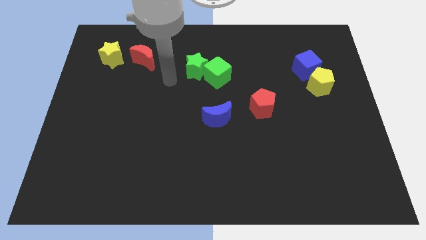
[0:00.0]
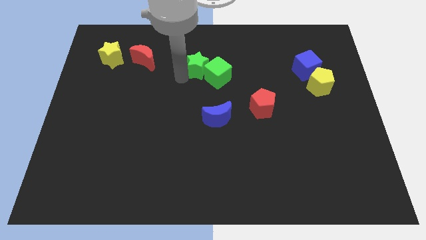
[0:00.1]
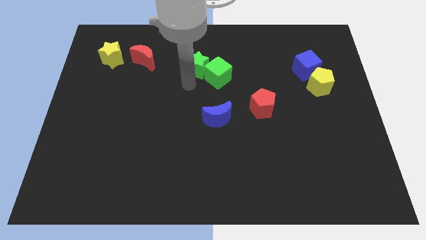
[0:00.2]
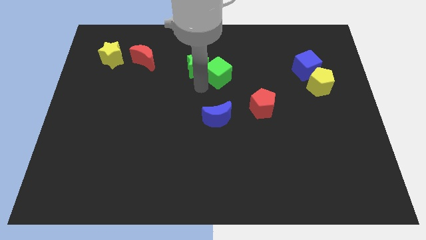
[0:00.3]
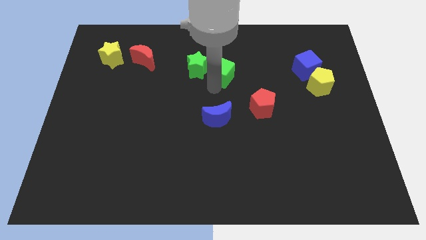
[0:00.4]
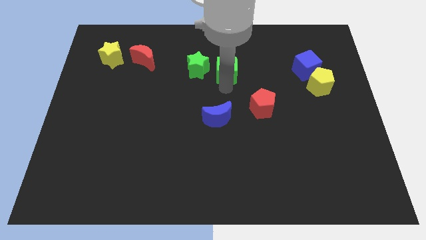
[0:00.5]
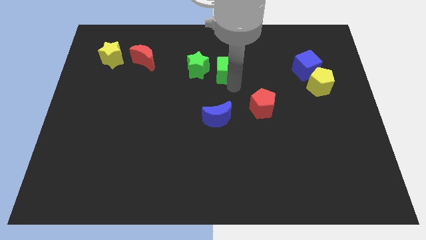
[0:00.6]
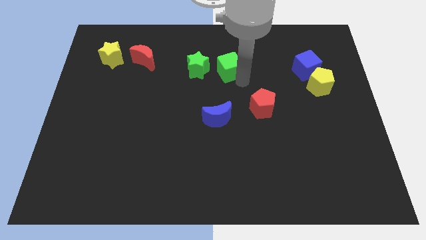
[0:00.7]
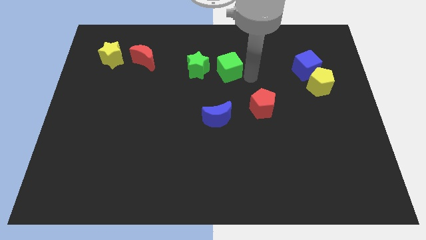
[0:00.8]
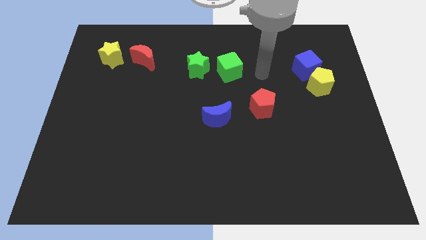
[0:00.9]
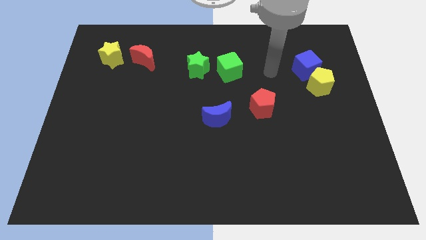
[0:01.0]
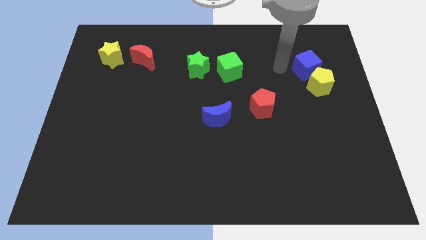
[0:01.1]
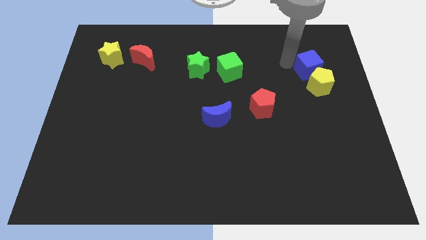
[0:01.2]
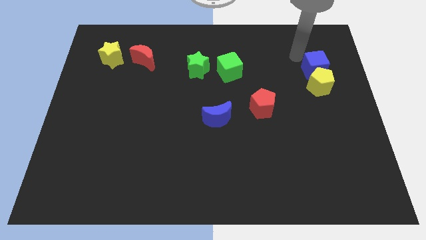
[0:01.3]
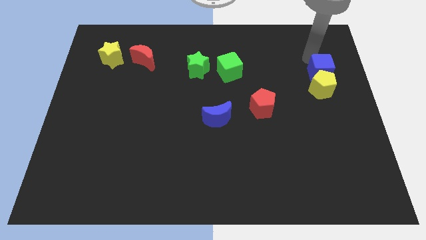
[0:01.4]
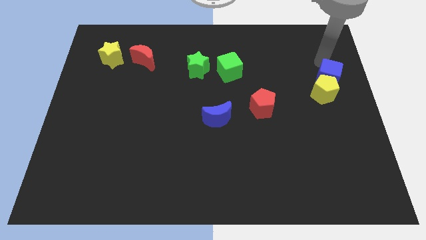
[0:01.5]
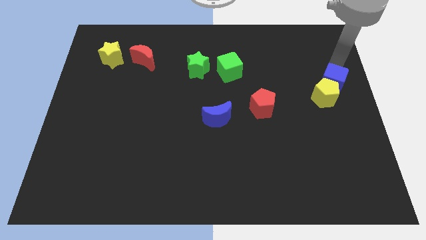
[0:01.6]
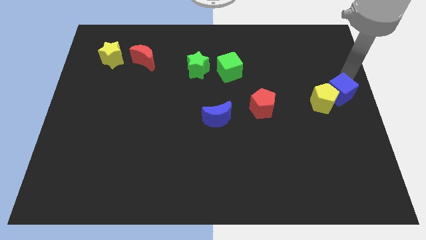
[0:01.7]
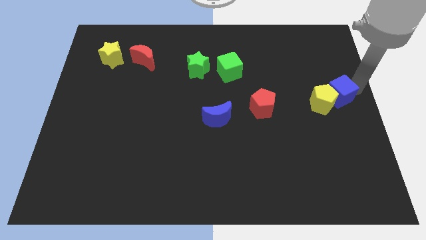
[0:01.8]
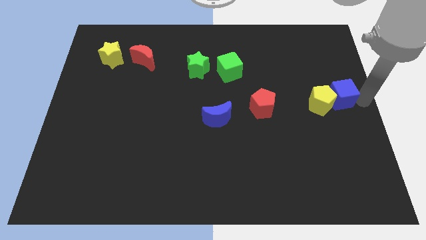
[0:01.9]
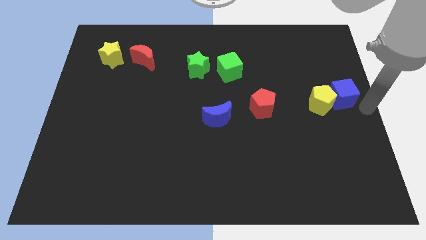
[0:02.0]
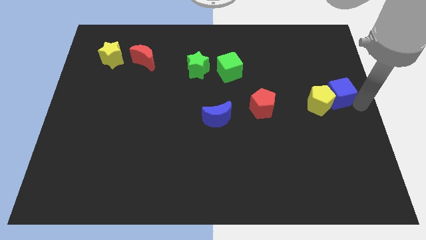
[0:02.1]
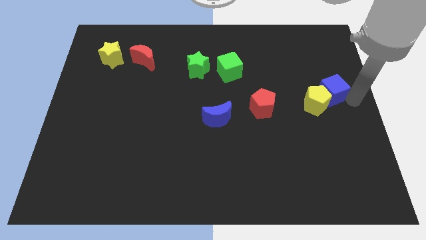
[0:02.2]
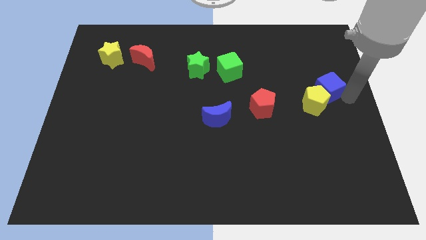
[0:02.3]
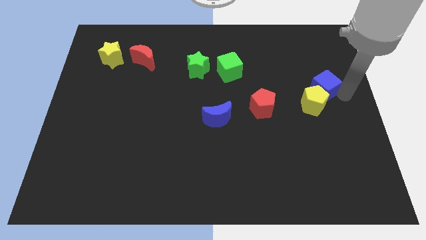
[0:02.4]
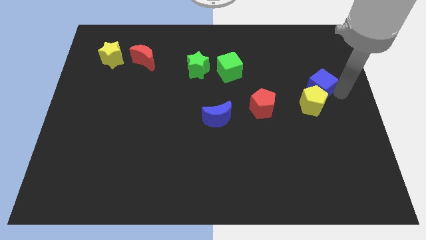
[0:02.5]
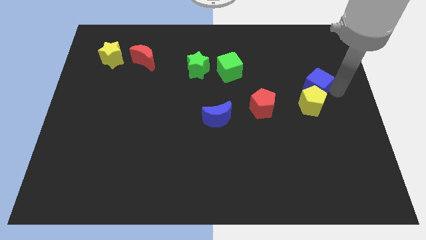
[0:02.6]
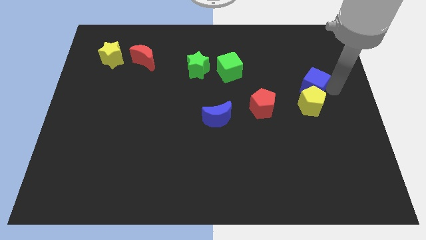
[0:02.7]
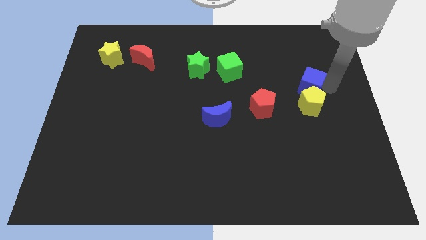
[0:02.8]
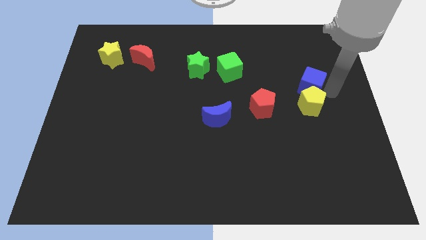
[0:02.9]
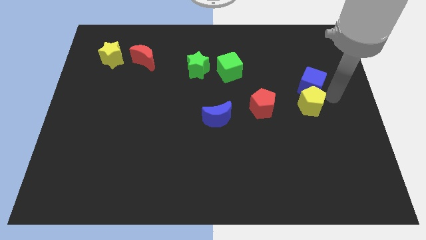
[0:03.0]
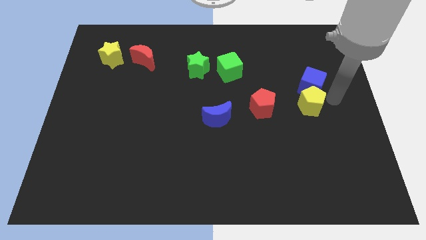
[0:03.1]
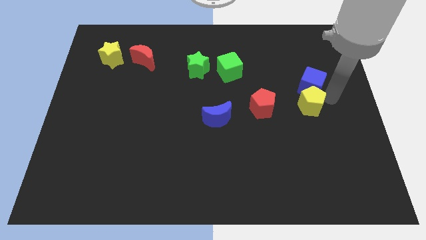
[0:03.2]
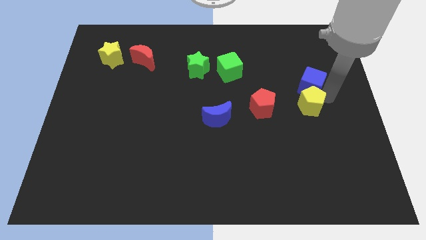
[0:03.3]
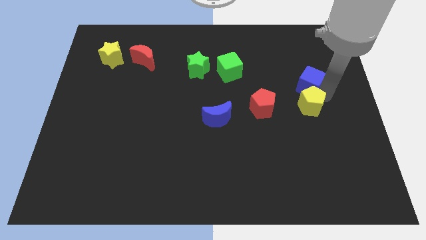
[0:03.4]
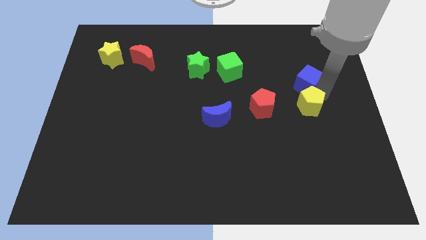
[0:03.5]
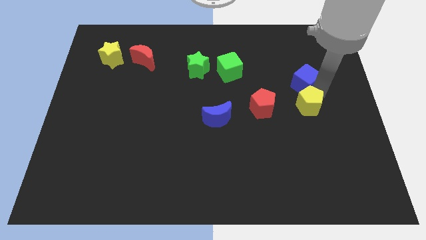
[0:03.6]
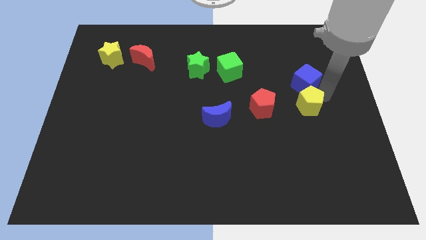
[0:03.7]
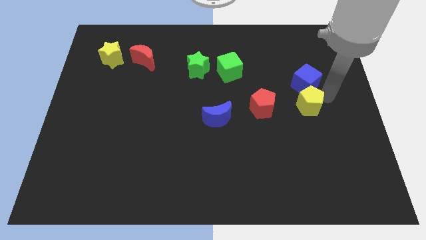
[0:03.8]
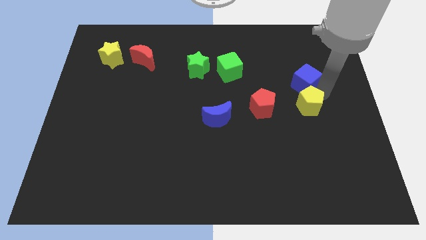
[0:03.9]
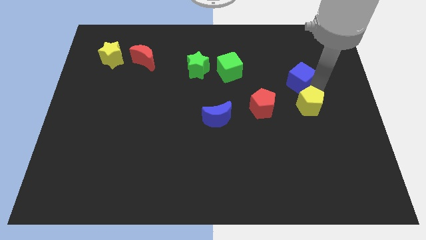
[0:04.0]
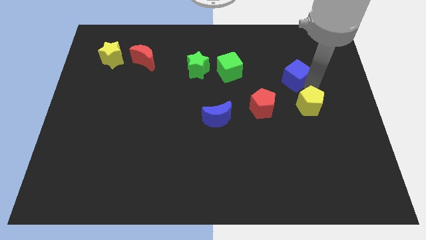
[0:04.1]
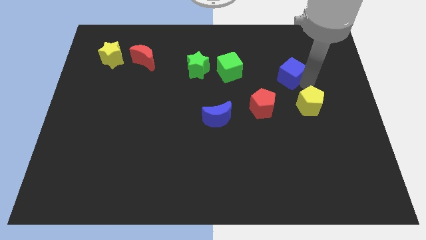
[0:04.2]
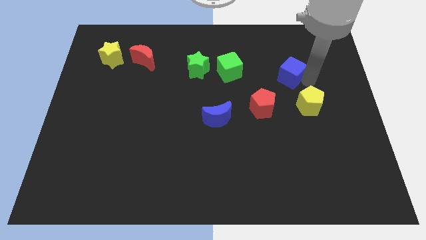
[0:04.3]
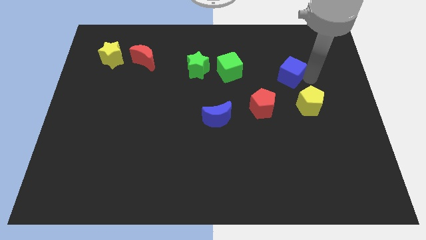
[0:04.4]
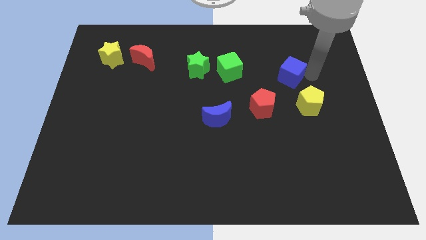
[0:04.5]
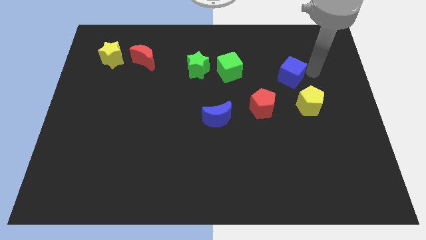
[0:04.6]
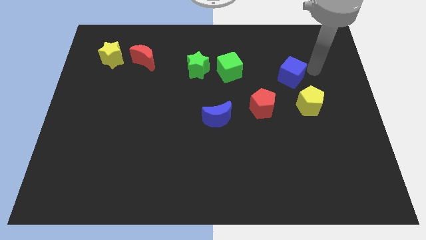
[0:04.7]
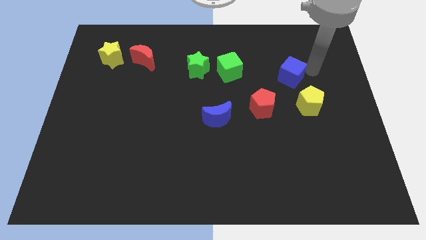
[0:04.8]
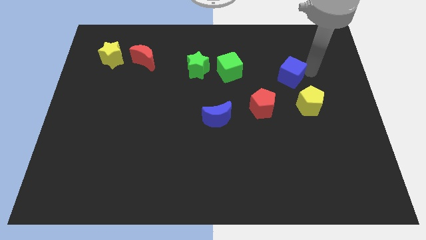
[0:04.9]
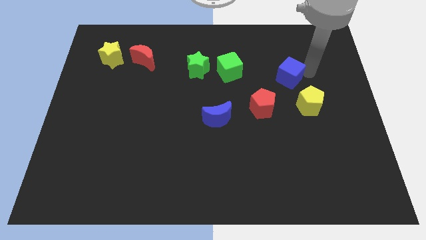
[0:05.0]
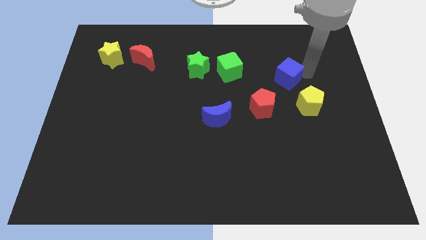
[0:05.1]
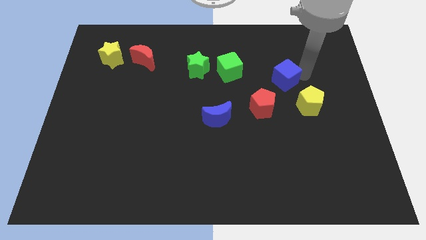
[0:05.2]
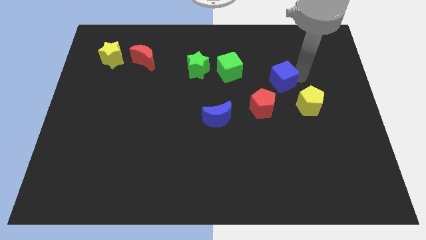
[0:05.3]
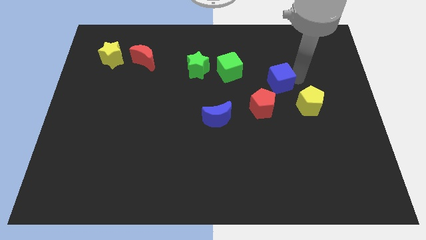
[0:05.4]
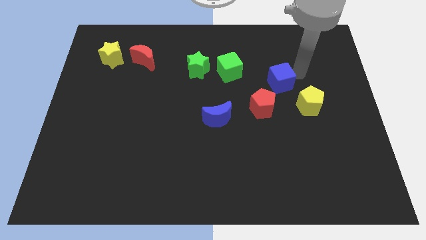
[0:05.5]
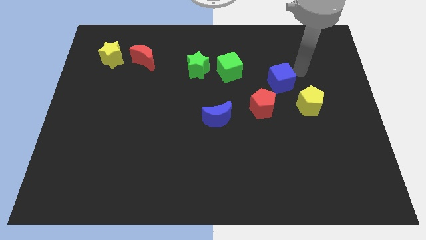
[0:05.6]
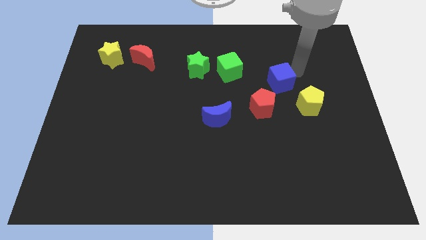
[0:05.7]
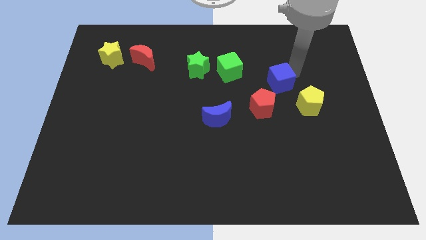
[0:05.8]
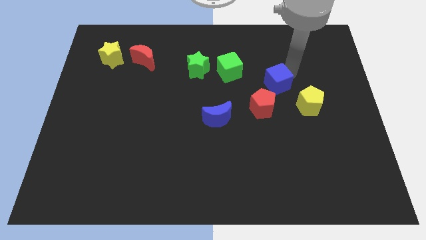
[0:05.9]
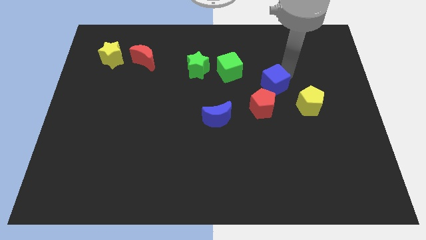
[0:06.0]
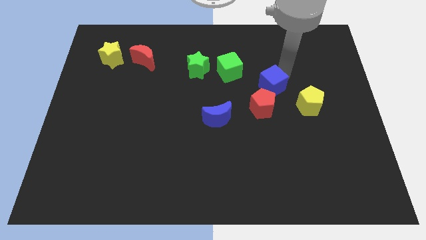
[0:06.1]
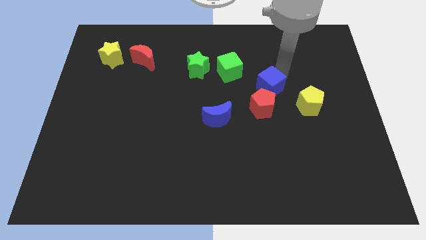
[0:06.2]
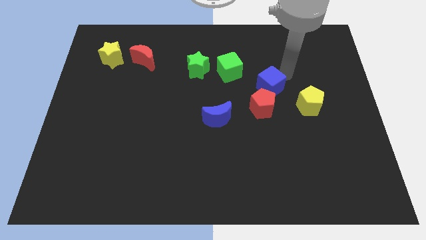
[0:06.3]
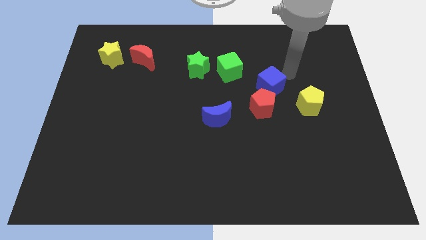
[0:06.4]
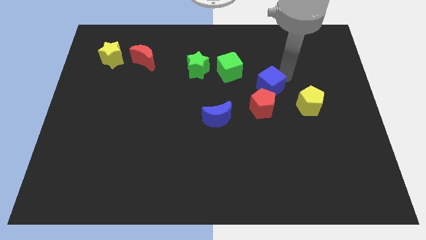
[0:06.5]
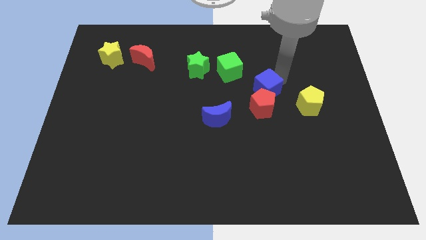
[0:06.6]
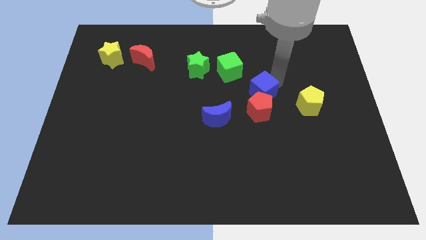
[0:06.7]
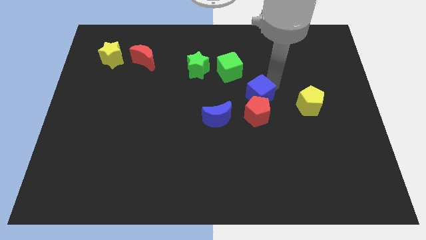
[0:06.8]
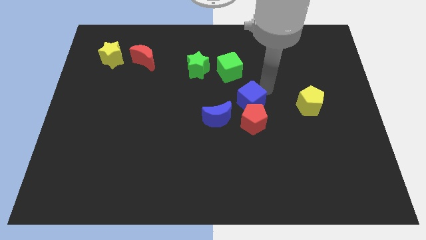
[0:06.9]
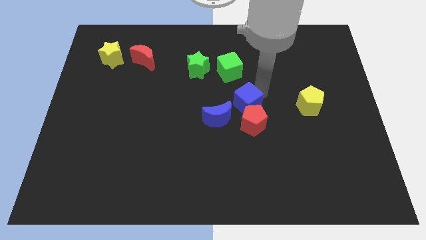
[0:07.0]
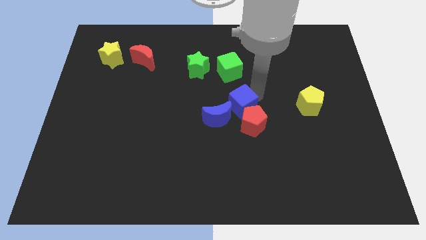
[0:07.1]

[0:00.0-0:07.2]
move the blue cube diagonally downwards and to the left

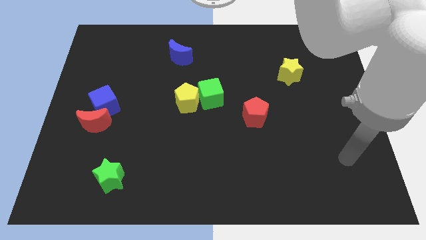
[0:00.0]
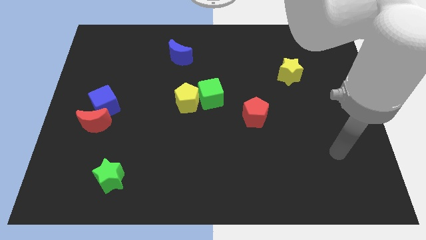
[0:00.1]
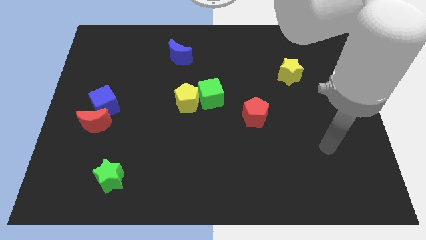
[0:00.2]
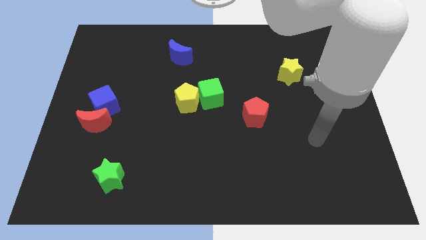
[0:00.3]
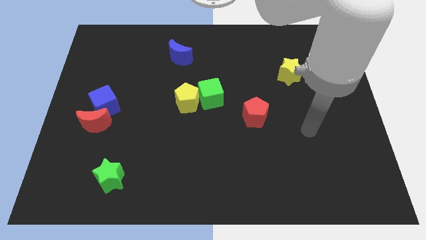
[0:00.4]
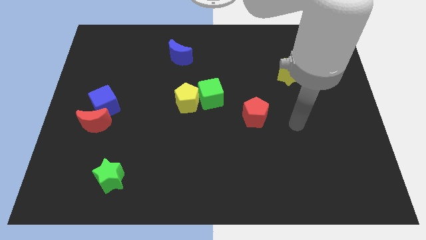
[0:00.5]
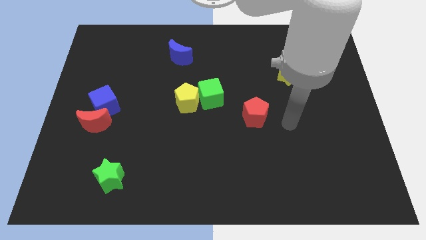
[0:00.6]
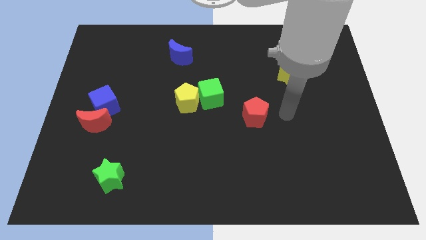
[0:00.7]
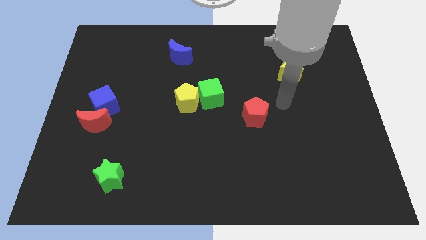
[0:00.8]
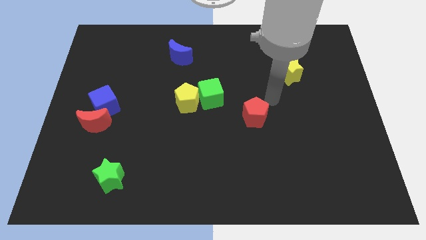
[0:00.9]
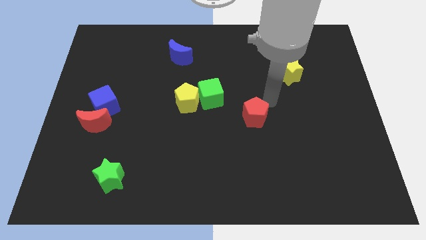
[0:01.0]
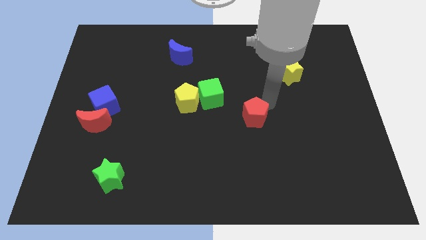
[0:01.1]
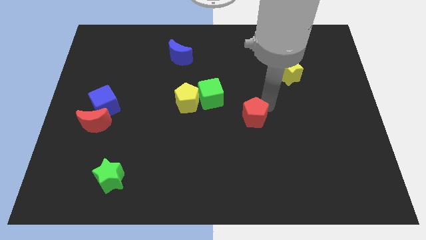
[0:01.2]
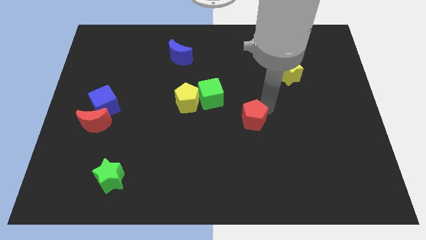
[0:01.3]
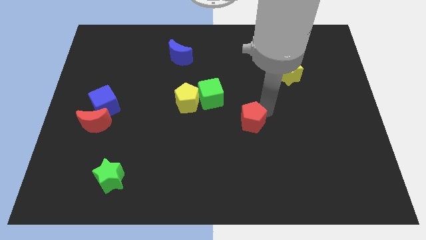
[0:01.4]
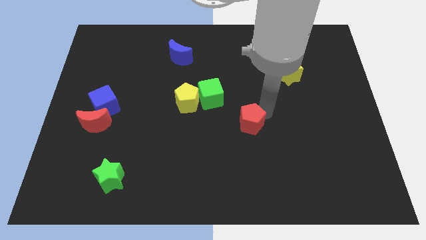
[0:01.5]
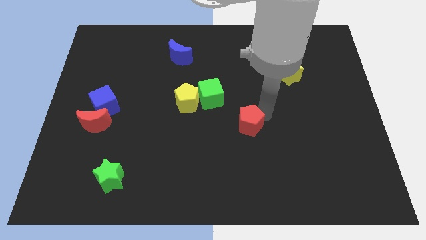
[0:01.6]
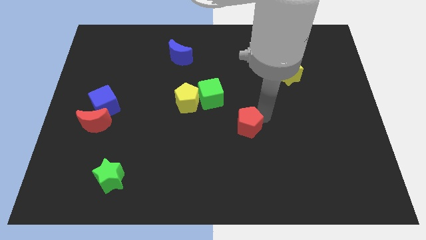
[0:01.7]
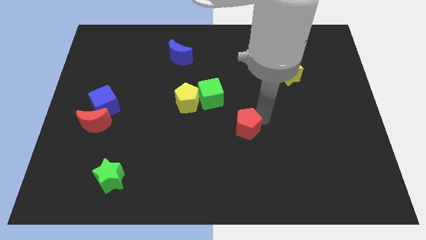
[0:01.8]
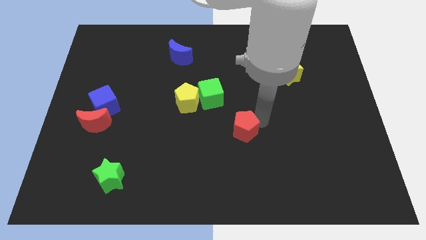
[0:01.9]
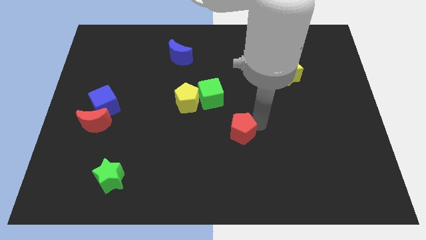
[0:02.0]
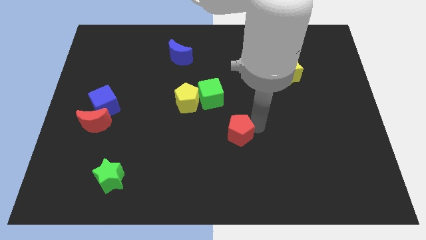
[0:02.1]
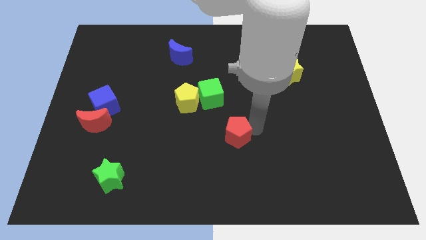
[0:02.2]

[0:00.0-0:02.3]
slightly push the red pentagon down and to the left
